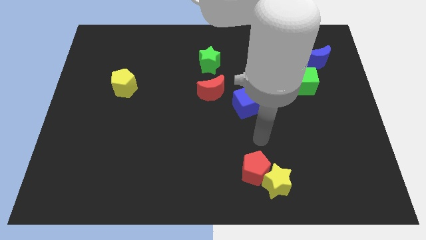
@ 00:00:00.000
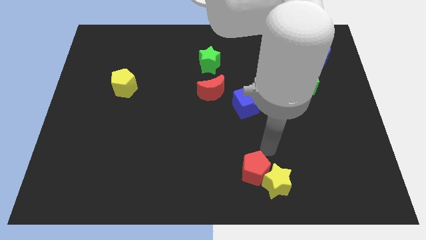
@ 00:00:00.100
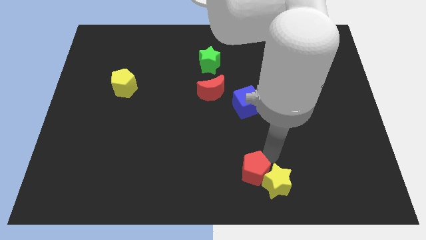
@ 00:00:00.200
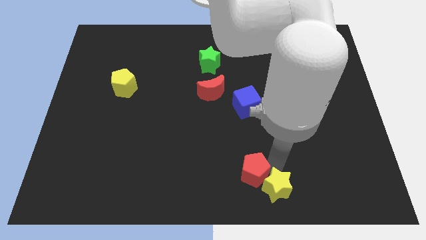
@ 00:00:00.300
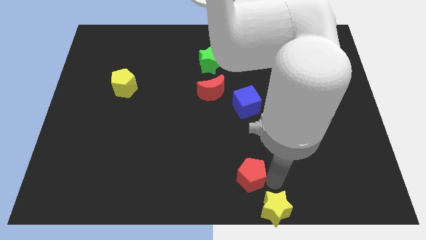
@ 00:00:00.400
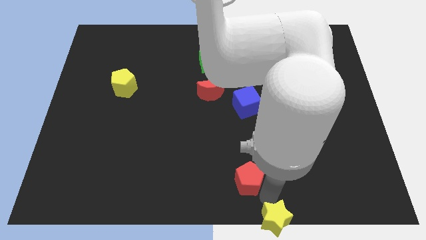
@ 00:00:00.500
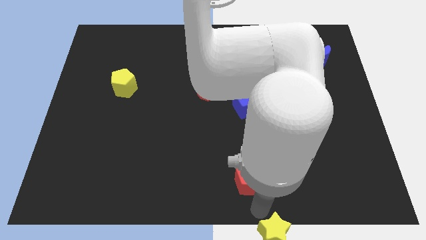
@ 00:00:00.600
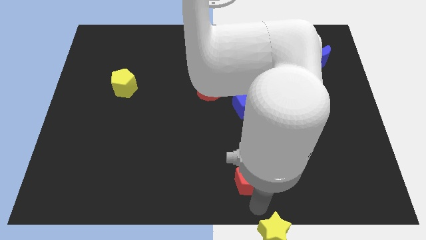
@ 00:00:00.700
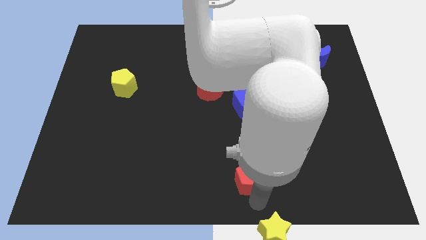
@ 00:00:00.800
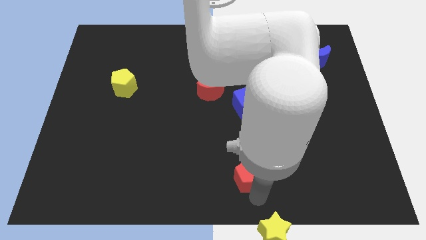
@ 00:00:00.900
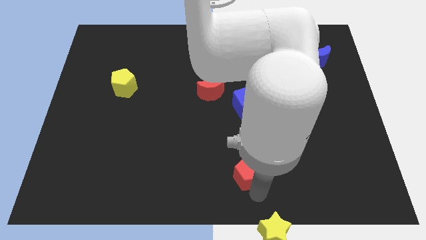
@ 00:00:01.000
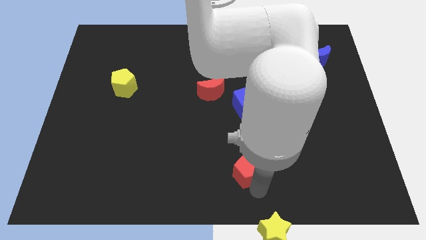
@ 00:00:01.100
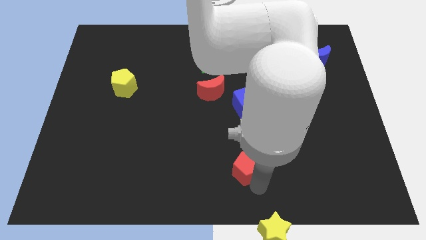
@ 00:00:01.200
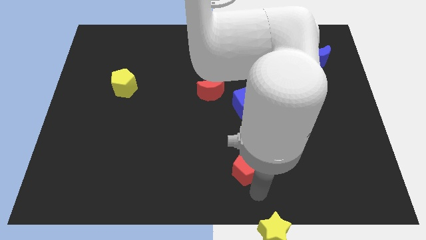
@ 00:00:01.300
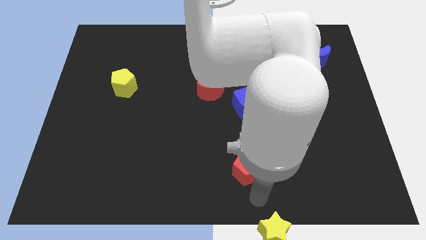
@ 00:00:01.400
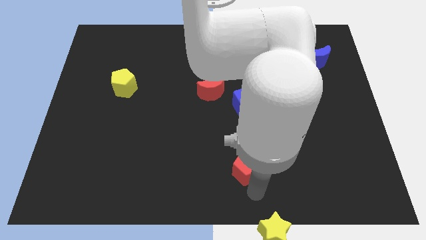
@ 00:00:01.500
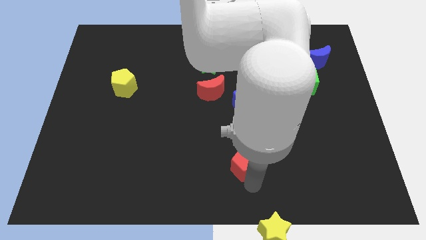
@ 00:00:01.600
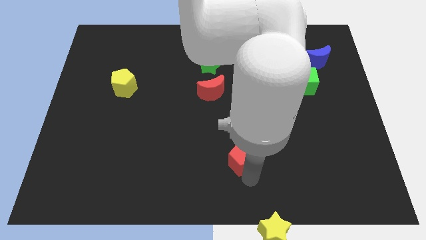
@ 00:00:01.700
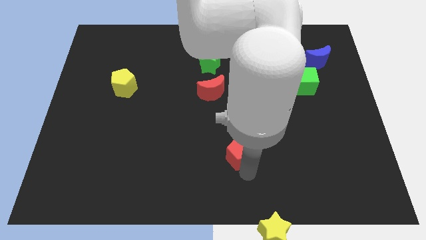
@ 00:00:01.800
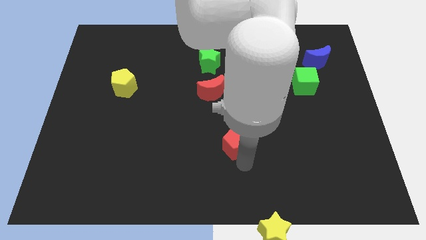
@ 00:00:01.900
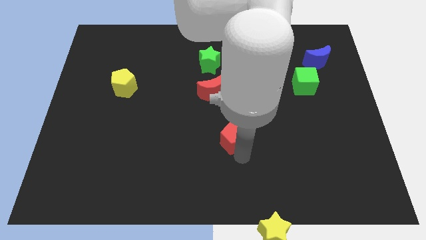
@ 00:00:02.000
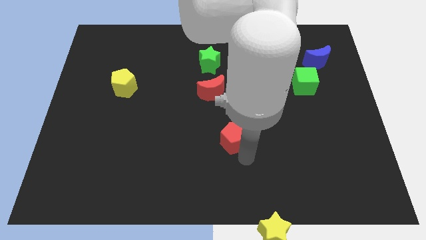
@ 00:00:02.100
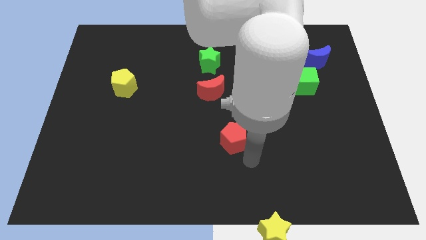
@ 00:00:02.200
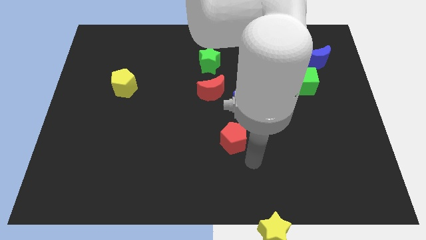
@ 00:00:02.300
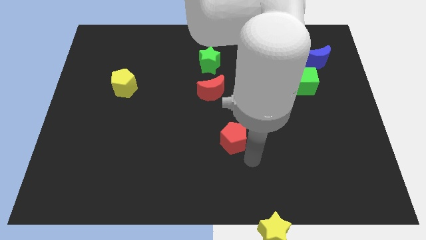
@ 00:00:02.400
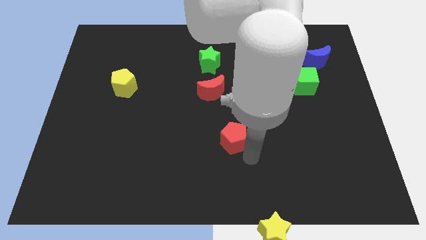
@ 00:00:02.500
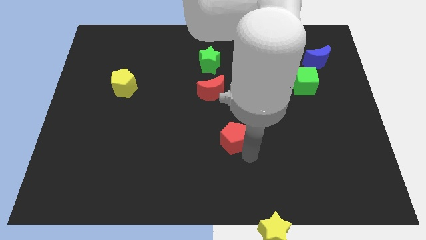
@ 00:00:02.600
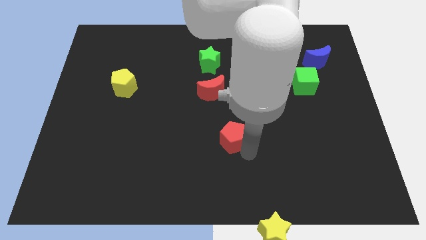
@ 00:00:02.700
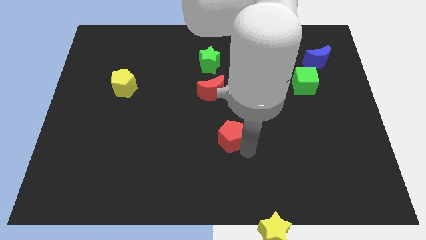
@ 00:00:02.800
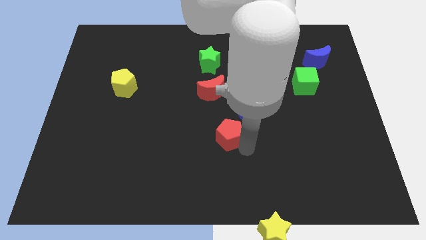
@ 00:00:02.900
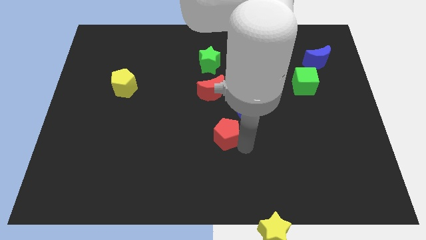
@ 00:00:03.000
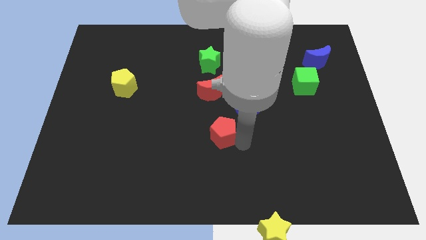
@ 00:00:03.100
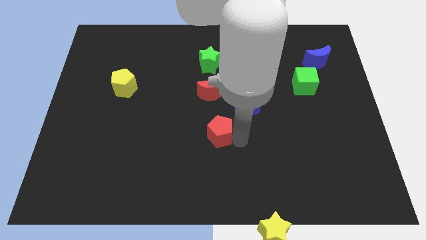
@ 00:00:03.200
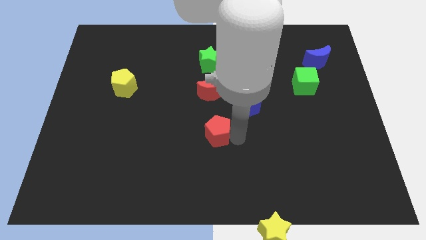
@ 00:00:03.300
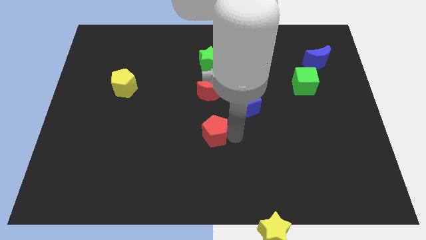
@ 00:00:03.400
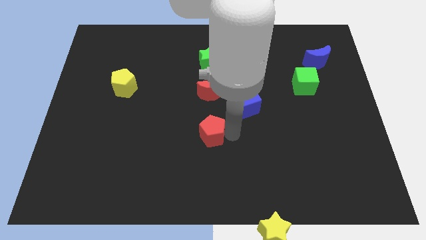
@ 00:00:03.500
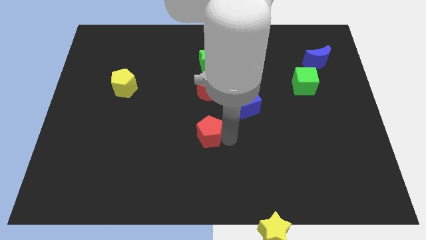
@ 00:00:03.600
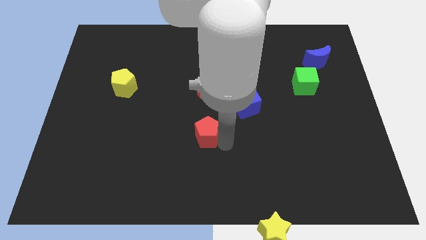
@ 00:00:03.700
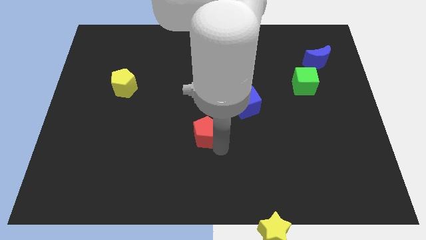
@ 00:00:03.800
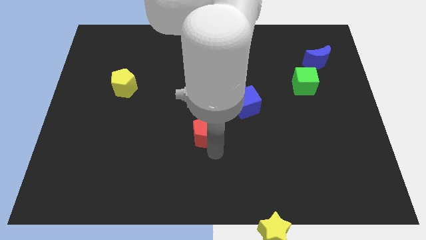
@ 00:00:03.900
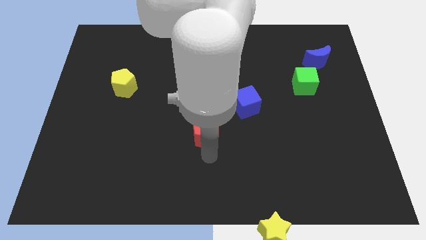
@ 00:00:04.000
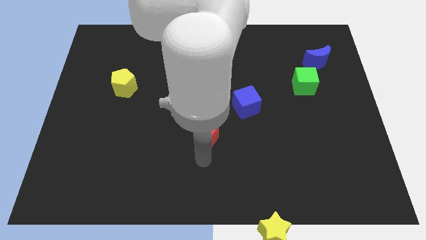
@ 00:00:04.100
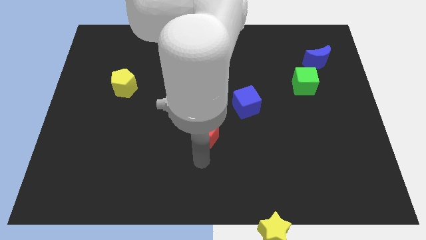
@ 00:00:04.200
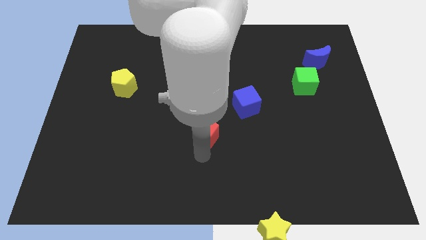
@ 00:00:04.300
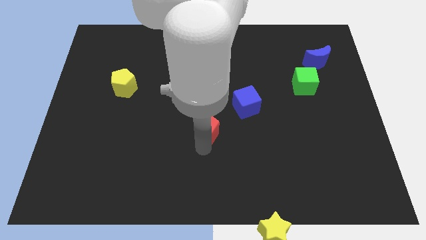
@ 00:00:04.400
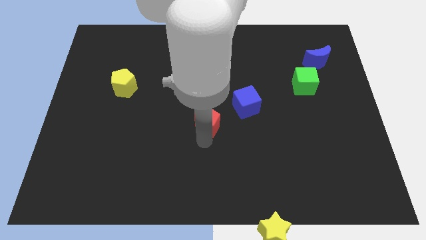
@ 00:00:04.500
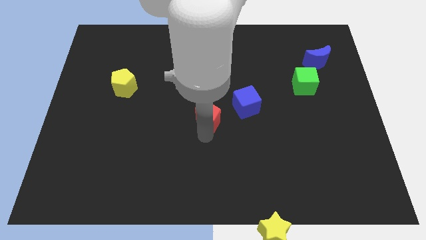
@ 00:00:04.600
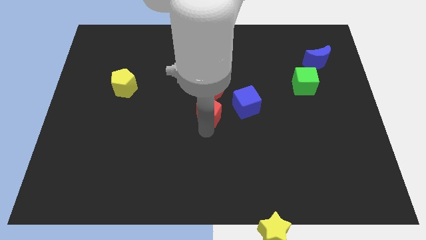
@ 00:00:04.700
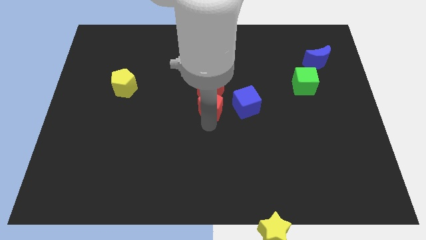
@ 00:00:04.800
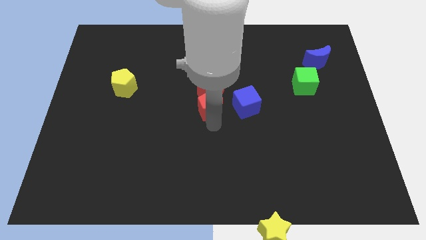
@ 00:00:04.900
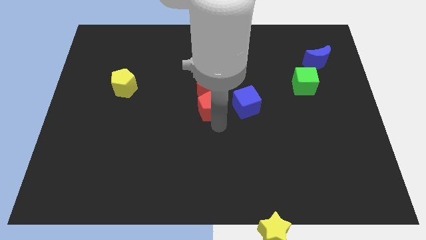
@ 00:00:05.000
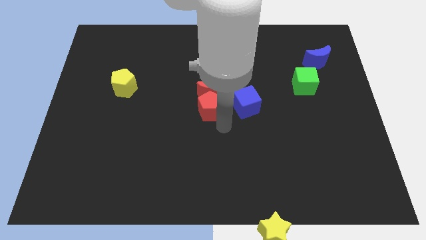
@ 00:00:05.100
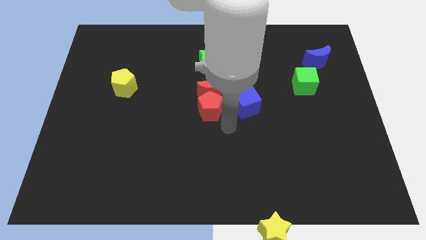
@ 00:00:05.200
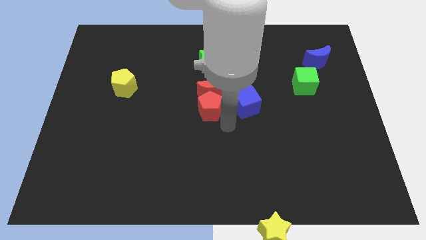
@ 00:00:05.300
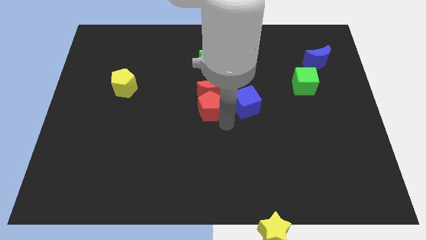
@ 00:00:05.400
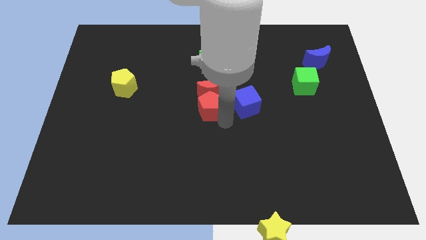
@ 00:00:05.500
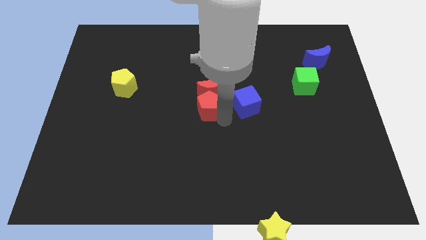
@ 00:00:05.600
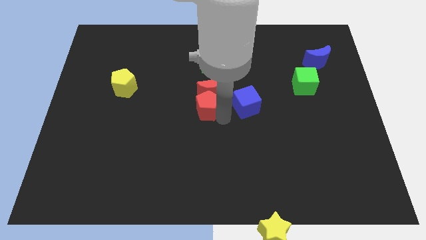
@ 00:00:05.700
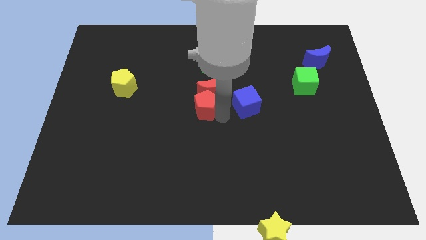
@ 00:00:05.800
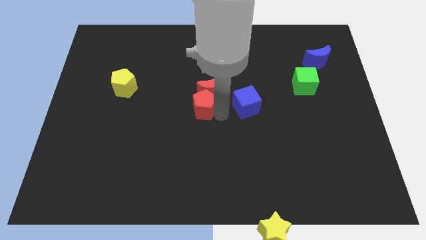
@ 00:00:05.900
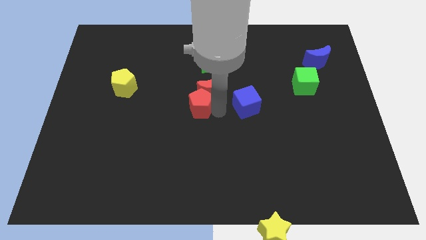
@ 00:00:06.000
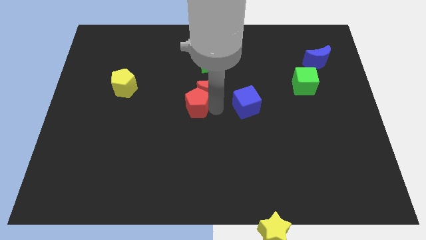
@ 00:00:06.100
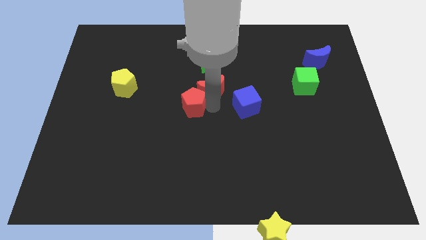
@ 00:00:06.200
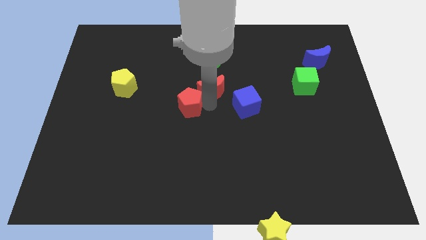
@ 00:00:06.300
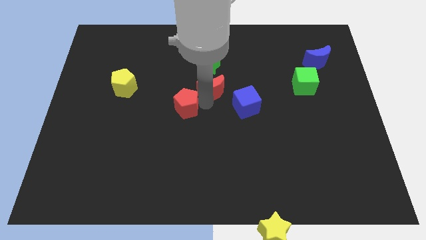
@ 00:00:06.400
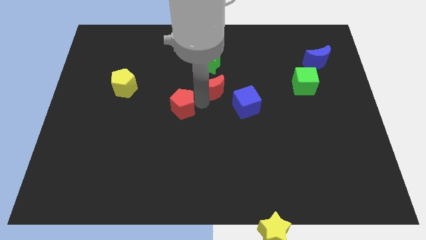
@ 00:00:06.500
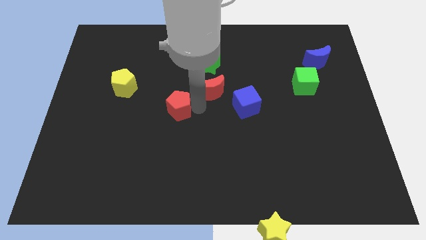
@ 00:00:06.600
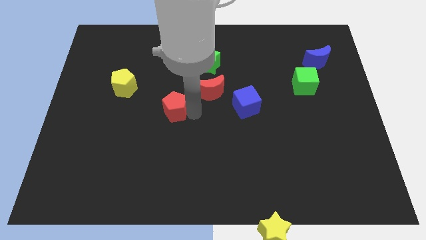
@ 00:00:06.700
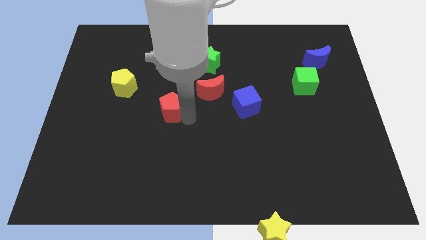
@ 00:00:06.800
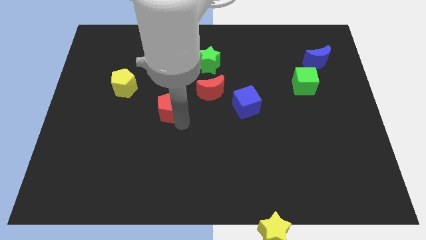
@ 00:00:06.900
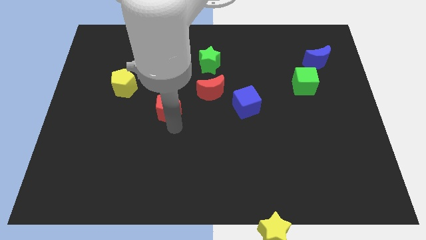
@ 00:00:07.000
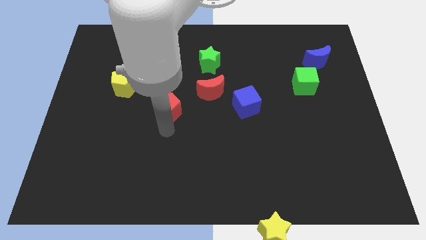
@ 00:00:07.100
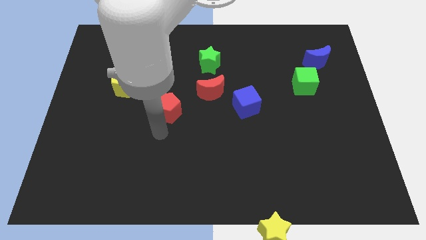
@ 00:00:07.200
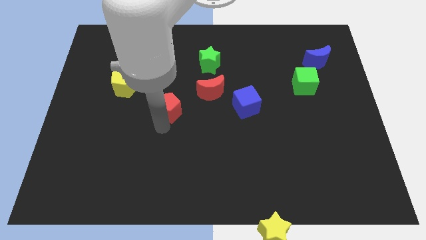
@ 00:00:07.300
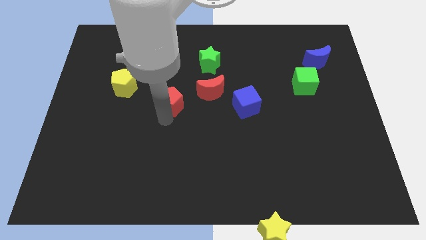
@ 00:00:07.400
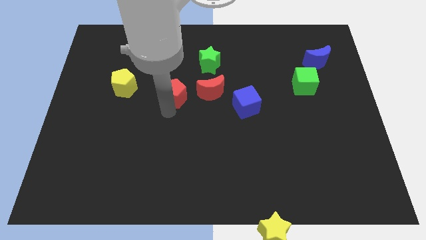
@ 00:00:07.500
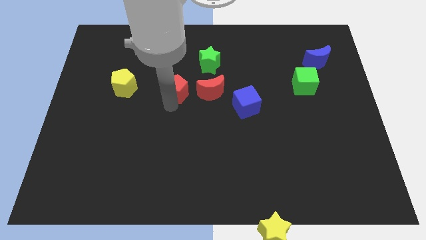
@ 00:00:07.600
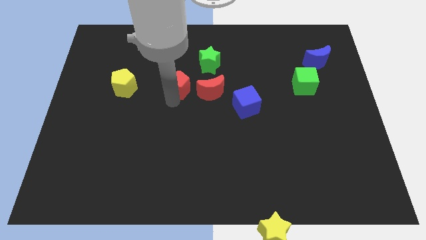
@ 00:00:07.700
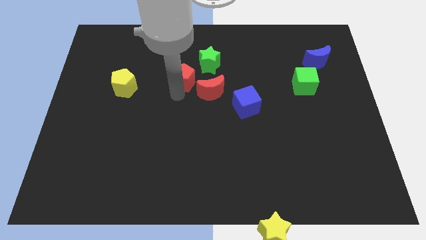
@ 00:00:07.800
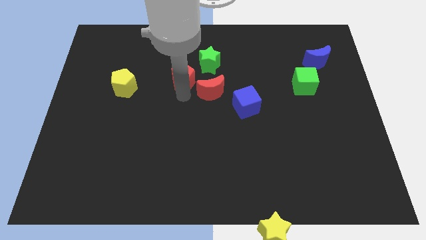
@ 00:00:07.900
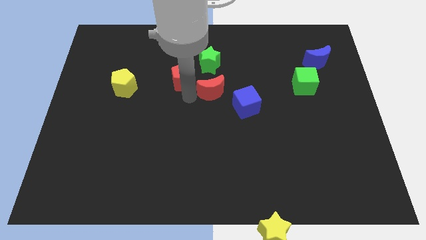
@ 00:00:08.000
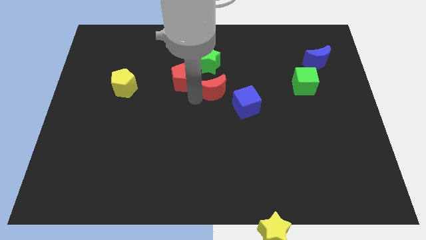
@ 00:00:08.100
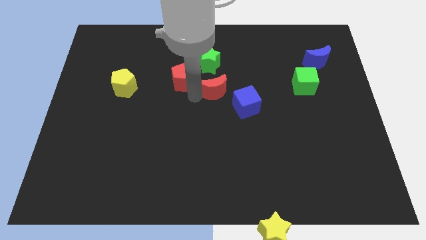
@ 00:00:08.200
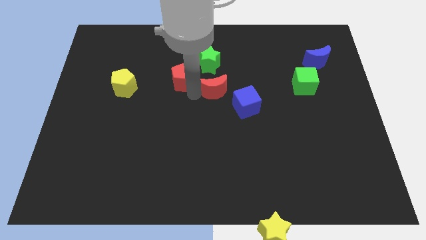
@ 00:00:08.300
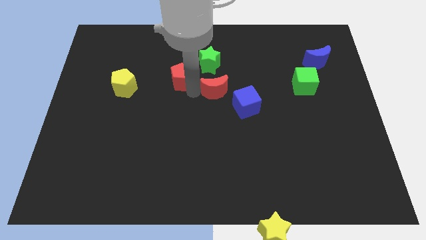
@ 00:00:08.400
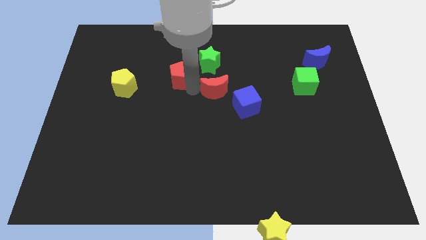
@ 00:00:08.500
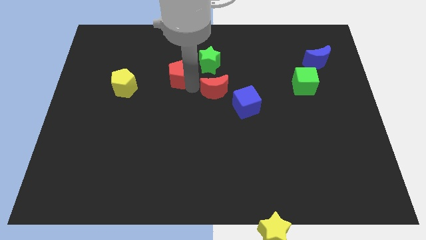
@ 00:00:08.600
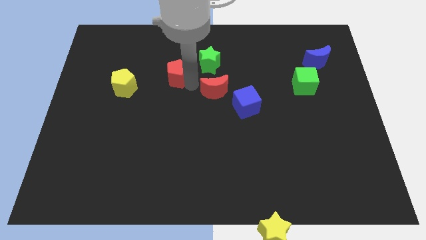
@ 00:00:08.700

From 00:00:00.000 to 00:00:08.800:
move the red pentagon to the left side of the green star
